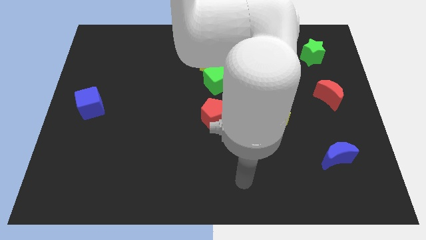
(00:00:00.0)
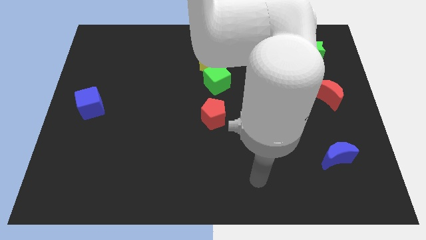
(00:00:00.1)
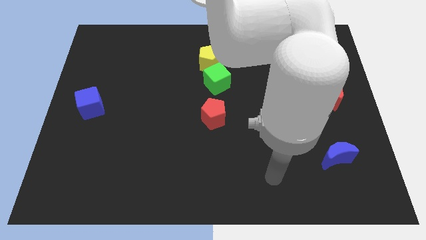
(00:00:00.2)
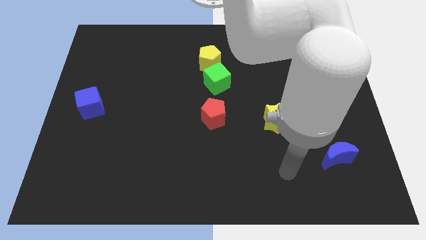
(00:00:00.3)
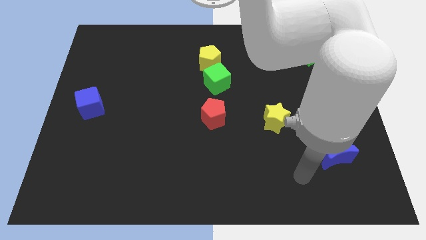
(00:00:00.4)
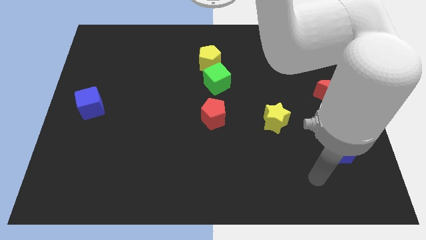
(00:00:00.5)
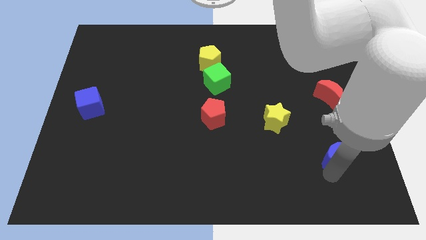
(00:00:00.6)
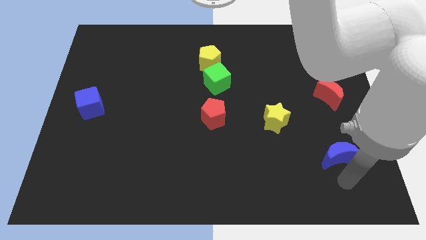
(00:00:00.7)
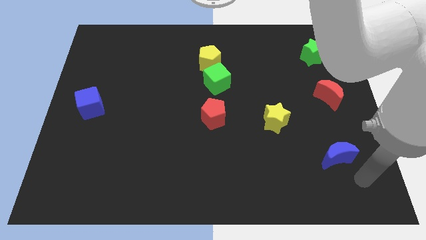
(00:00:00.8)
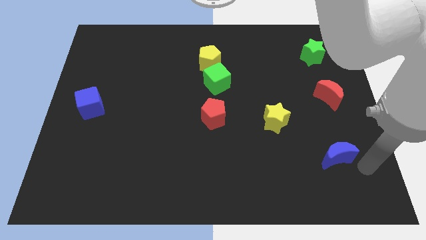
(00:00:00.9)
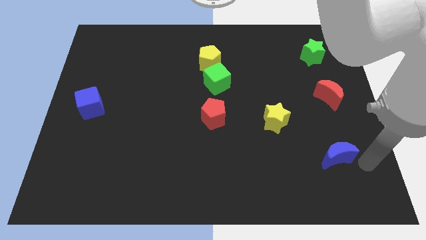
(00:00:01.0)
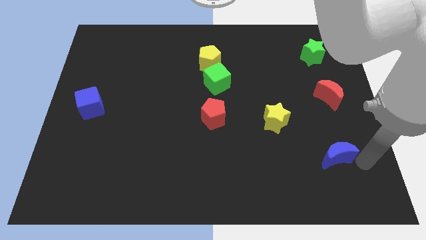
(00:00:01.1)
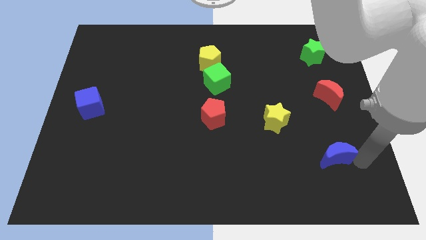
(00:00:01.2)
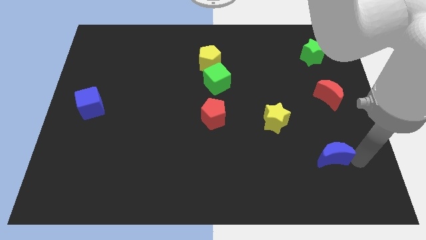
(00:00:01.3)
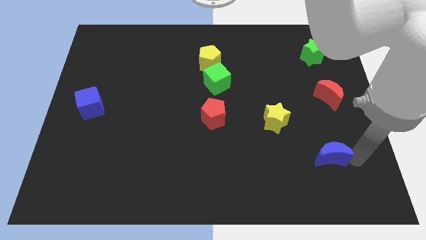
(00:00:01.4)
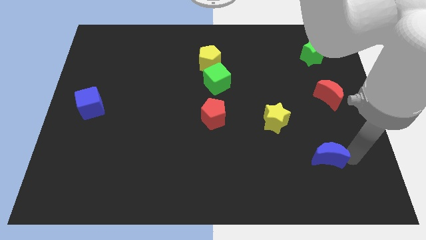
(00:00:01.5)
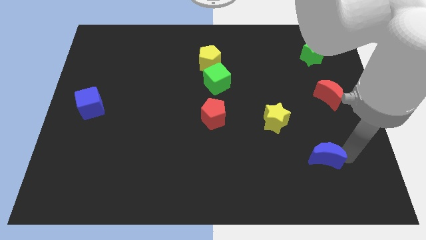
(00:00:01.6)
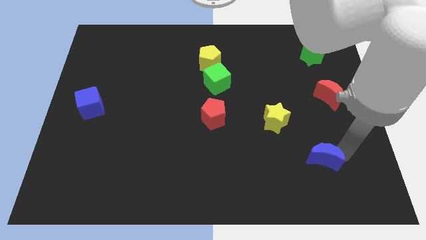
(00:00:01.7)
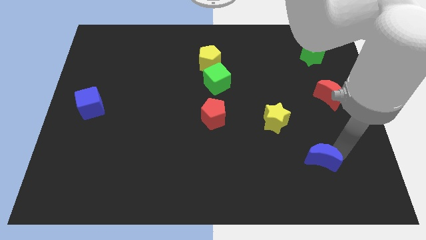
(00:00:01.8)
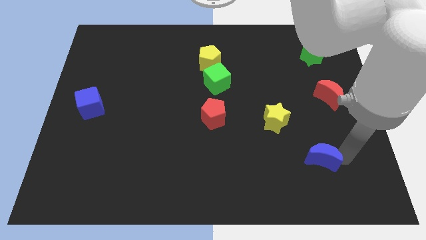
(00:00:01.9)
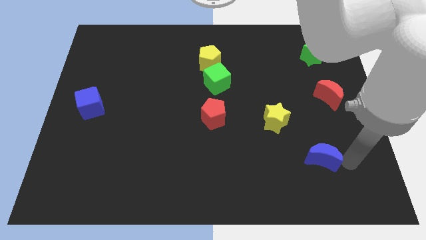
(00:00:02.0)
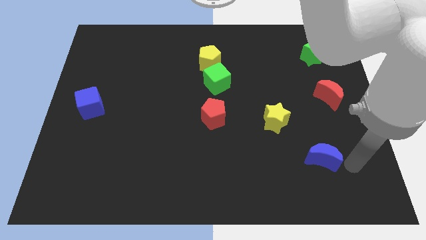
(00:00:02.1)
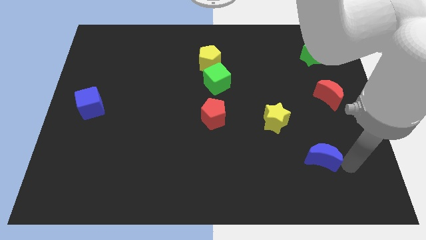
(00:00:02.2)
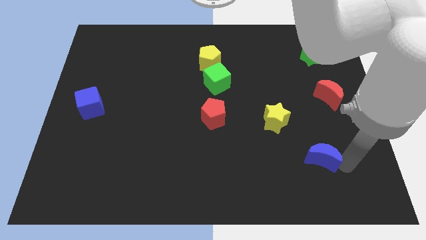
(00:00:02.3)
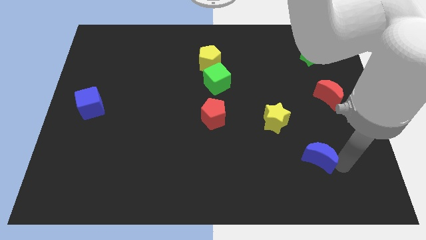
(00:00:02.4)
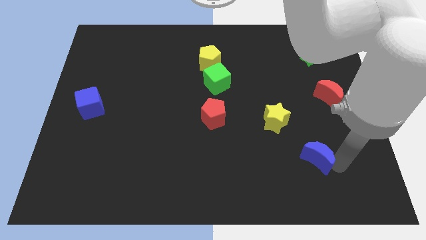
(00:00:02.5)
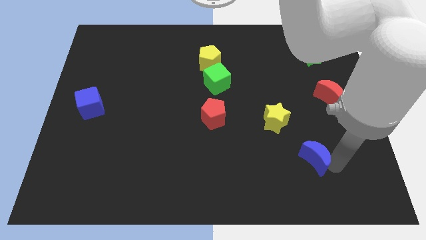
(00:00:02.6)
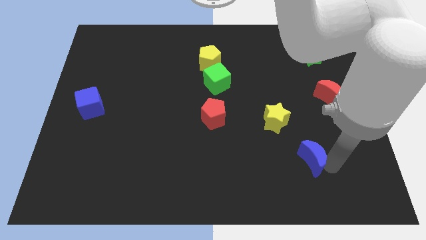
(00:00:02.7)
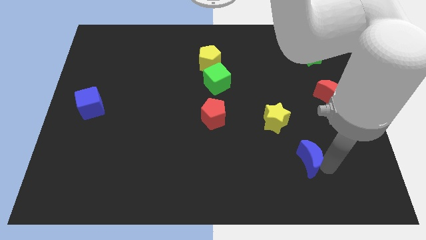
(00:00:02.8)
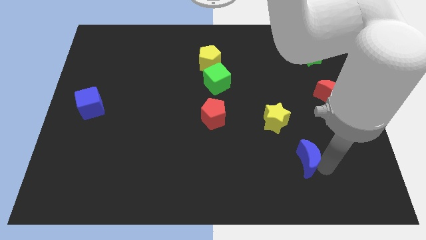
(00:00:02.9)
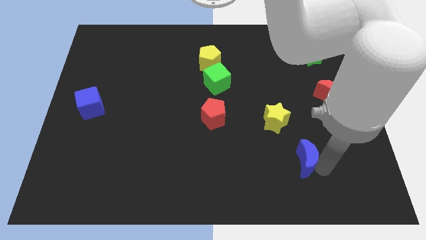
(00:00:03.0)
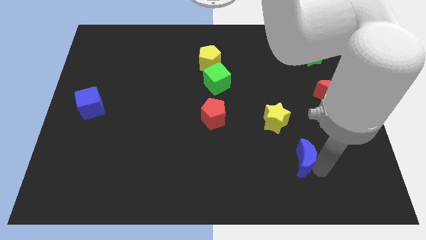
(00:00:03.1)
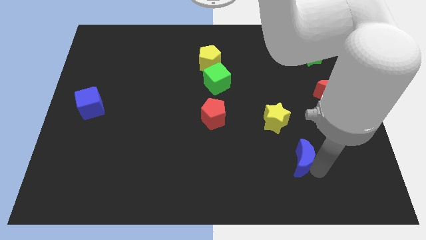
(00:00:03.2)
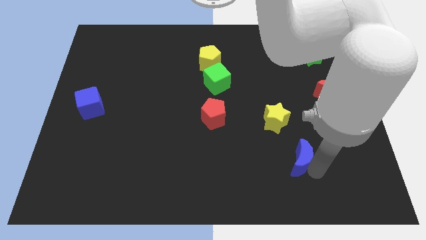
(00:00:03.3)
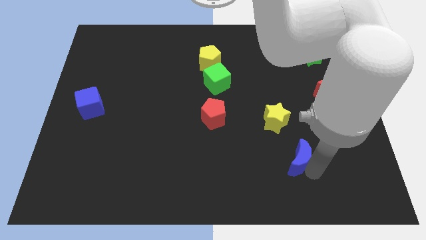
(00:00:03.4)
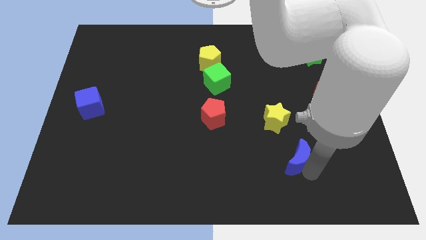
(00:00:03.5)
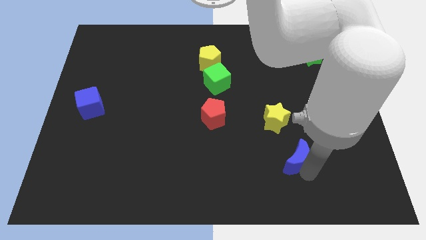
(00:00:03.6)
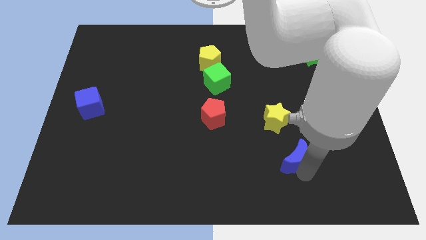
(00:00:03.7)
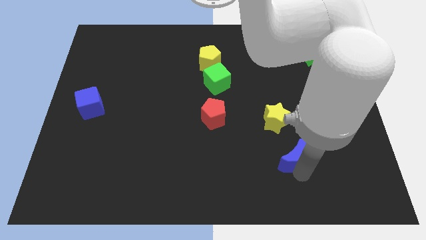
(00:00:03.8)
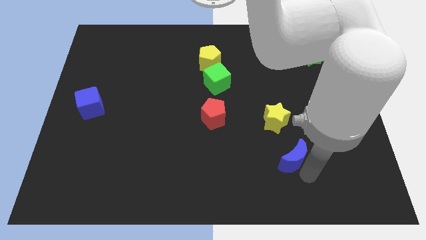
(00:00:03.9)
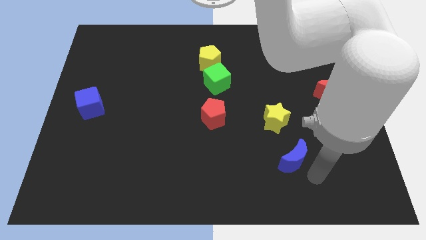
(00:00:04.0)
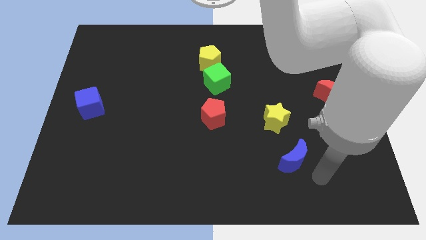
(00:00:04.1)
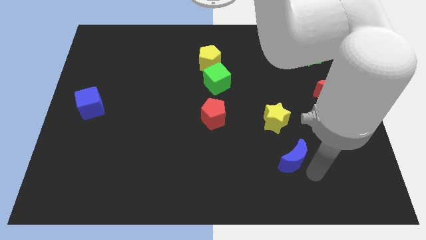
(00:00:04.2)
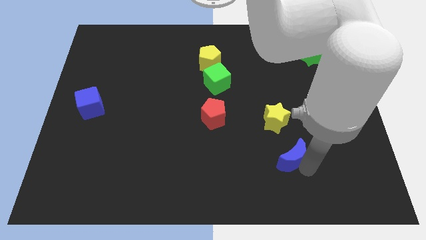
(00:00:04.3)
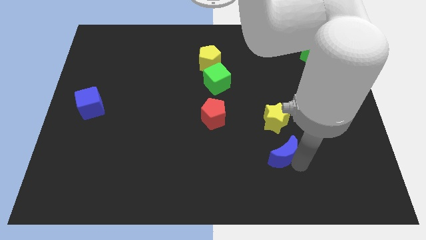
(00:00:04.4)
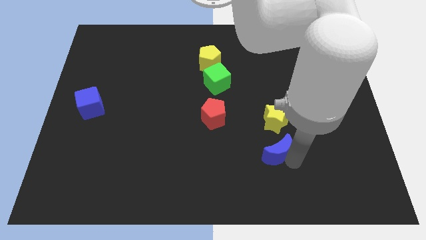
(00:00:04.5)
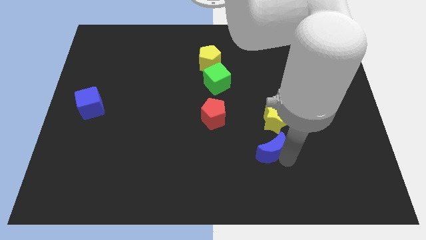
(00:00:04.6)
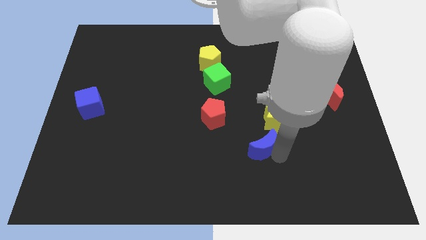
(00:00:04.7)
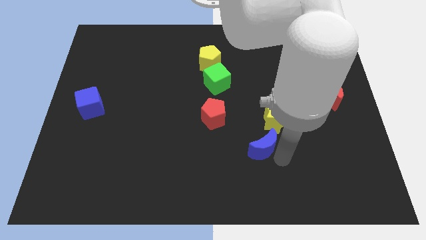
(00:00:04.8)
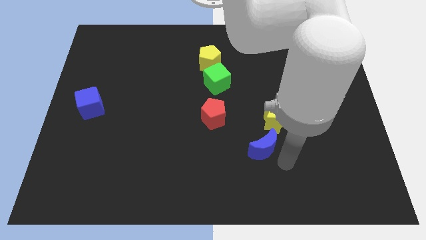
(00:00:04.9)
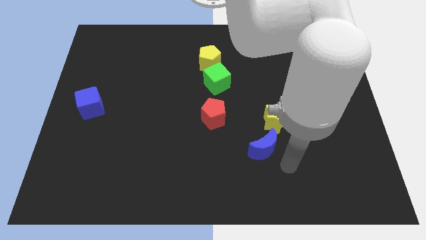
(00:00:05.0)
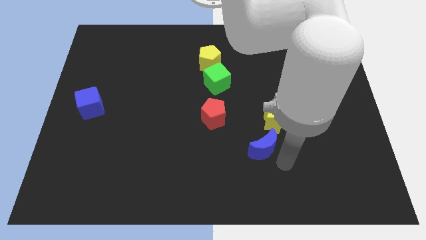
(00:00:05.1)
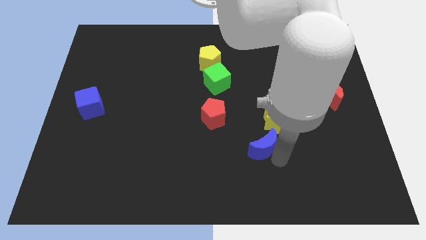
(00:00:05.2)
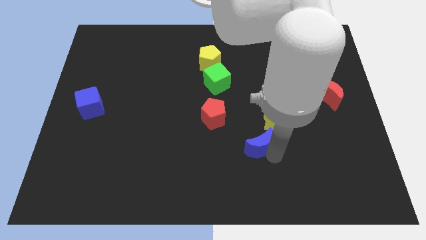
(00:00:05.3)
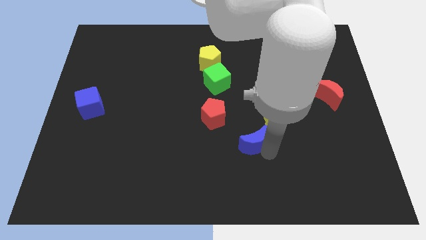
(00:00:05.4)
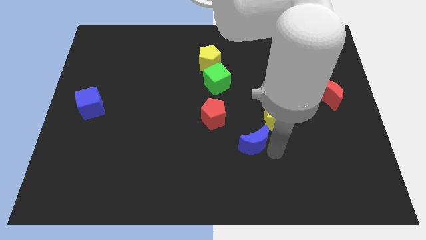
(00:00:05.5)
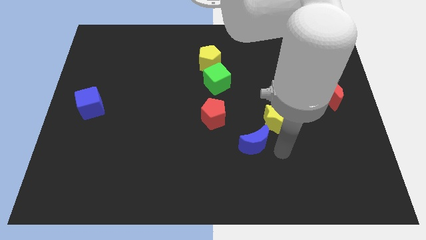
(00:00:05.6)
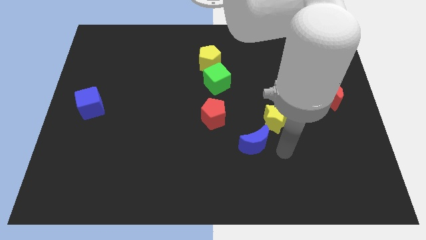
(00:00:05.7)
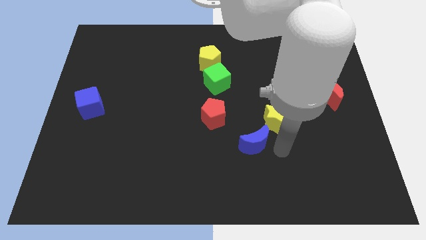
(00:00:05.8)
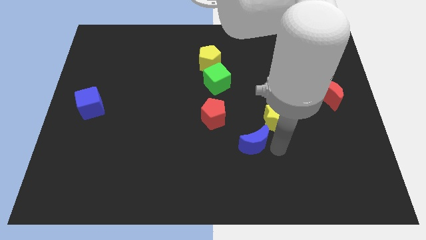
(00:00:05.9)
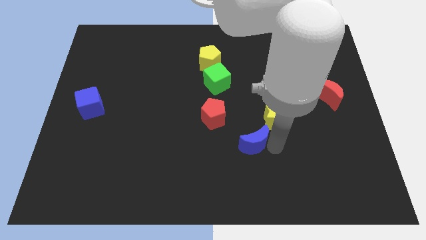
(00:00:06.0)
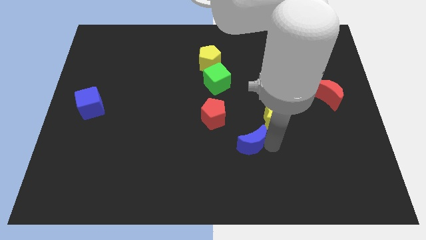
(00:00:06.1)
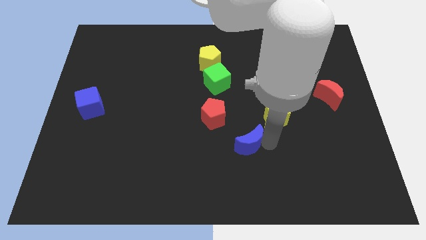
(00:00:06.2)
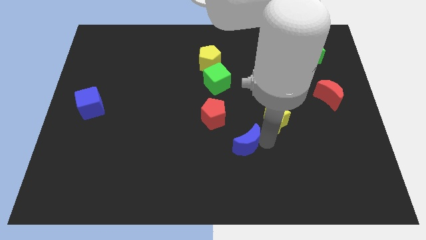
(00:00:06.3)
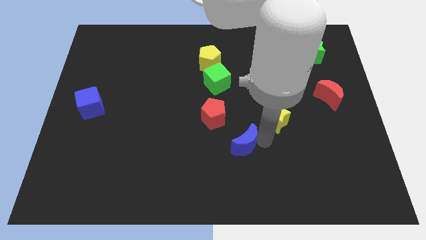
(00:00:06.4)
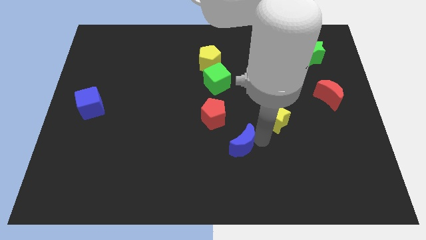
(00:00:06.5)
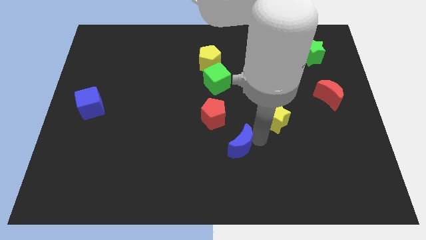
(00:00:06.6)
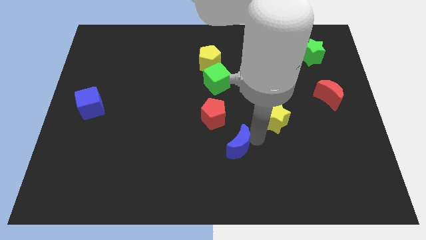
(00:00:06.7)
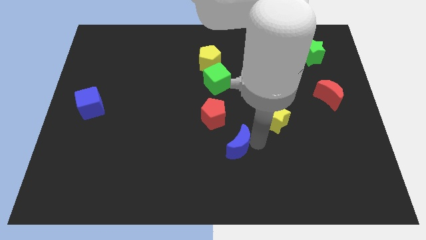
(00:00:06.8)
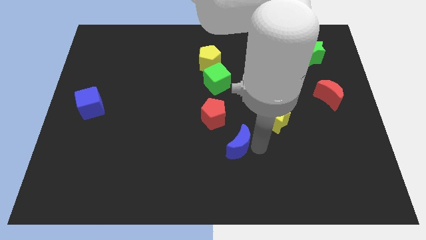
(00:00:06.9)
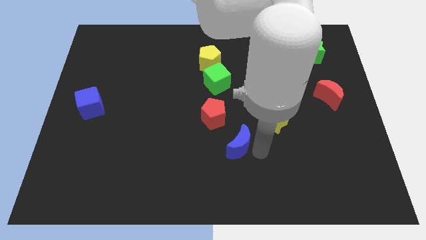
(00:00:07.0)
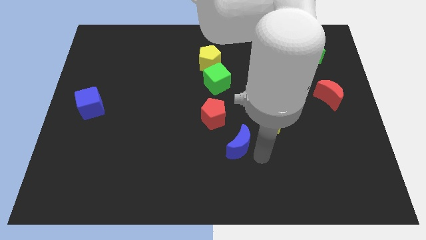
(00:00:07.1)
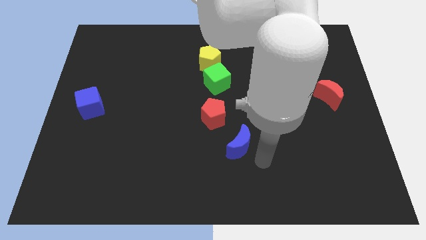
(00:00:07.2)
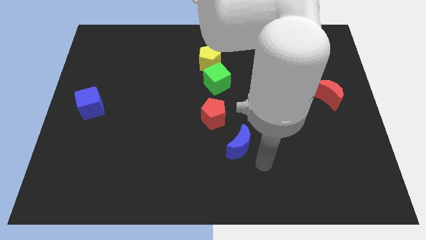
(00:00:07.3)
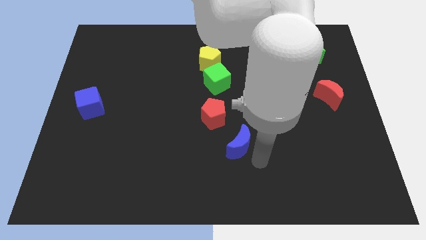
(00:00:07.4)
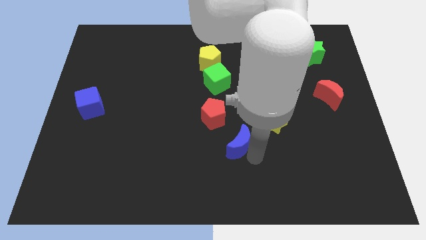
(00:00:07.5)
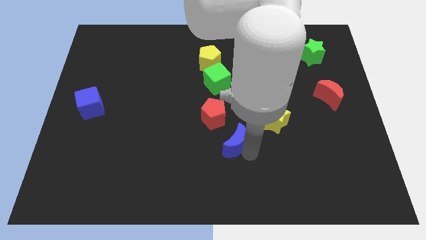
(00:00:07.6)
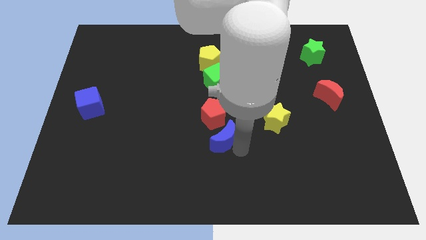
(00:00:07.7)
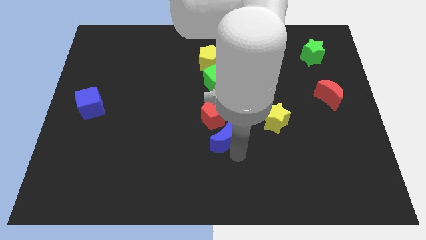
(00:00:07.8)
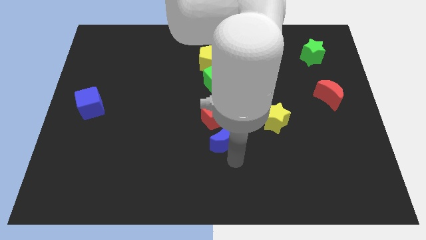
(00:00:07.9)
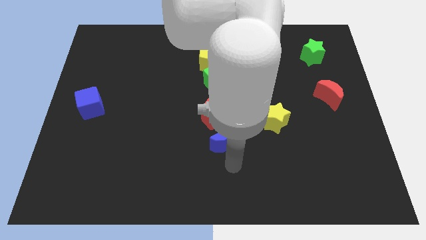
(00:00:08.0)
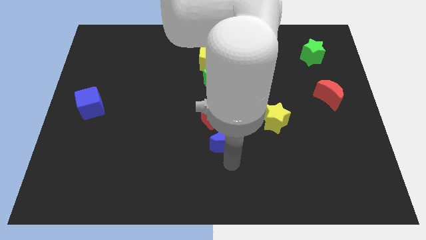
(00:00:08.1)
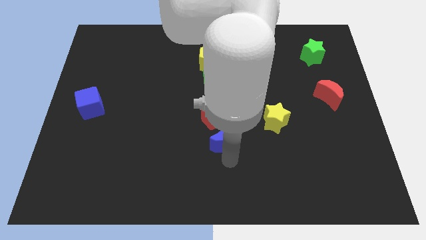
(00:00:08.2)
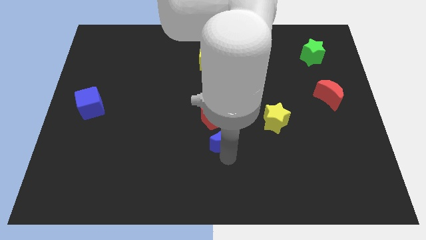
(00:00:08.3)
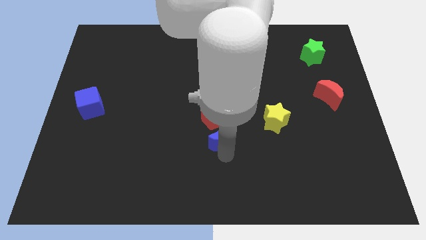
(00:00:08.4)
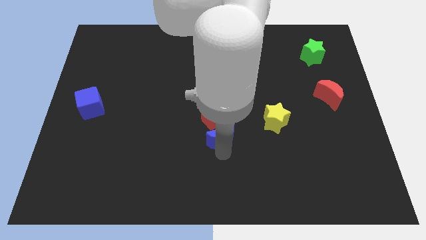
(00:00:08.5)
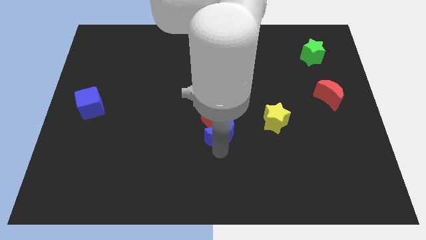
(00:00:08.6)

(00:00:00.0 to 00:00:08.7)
push the blue moon to the bottom of the green cube
